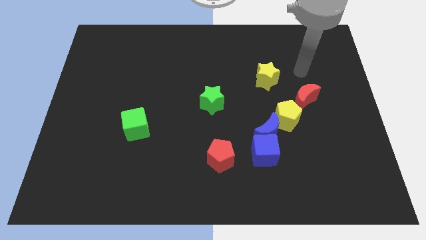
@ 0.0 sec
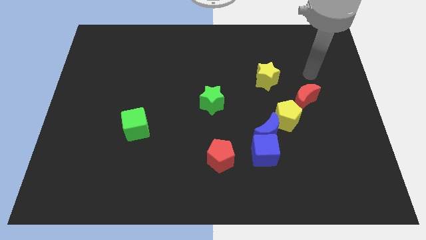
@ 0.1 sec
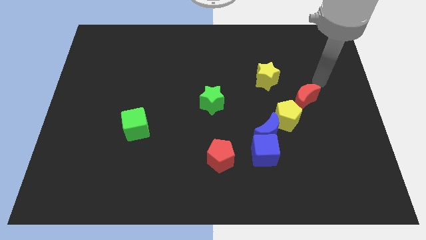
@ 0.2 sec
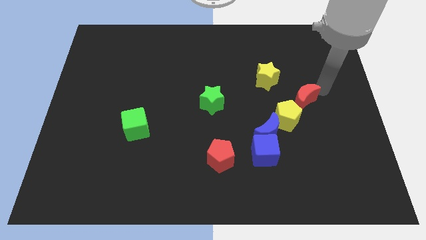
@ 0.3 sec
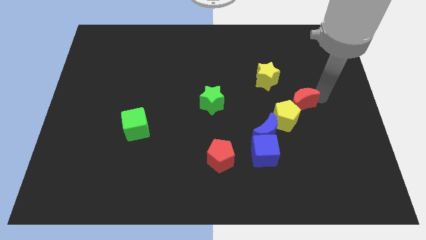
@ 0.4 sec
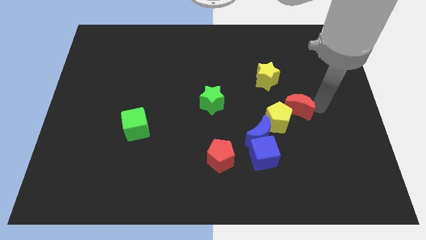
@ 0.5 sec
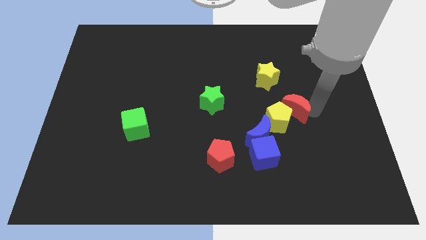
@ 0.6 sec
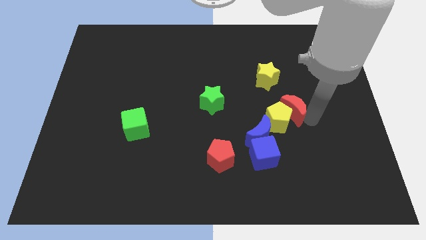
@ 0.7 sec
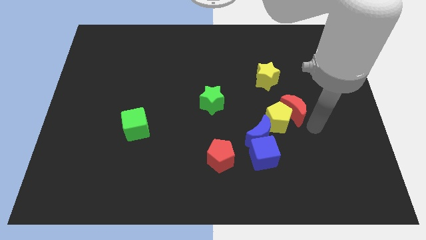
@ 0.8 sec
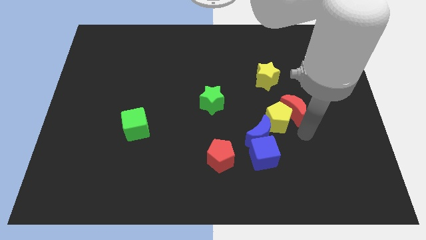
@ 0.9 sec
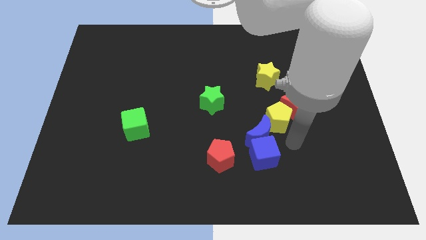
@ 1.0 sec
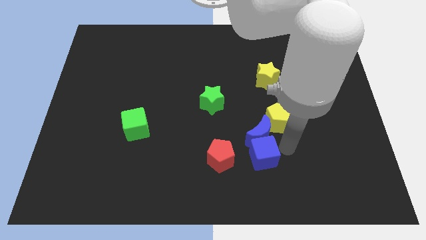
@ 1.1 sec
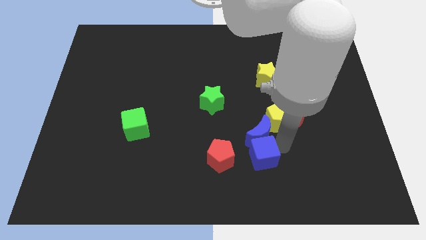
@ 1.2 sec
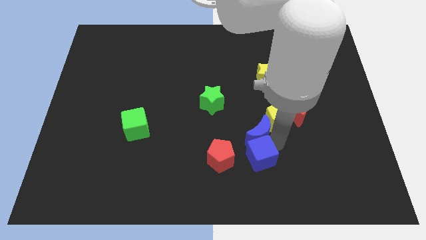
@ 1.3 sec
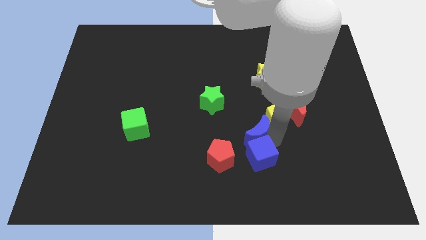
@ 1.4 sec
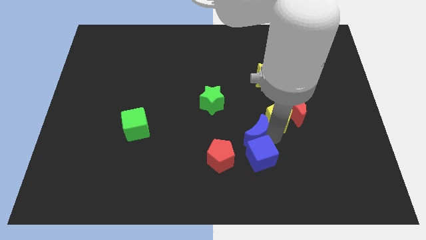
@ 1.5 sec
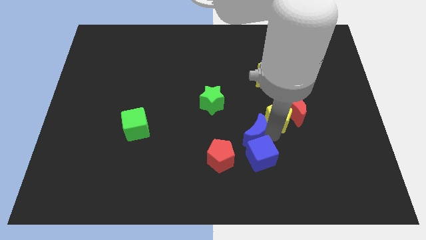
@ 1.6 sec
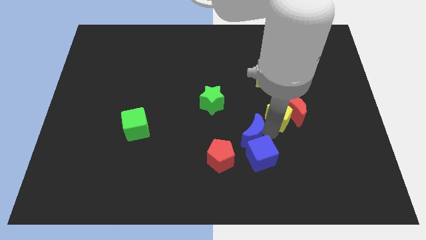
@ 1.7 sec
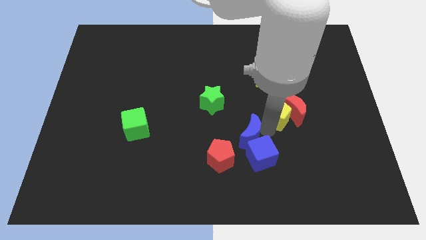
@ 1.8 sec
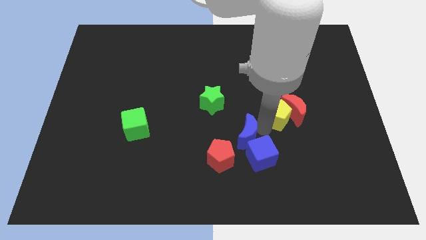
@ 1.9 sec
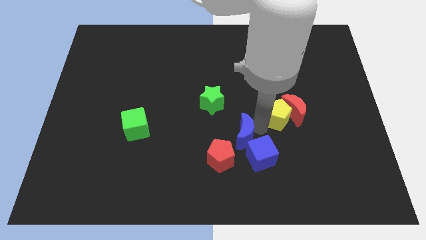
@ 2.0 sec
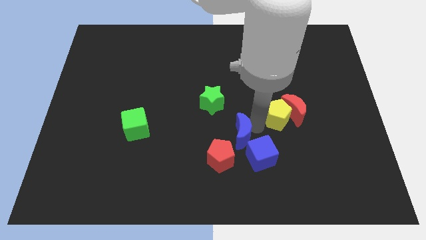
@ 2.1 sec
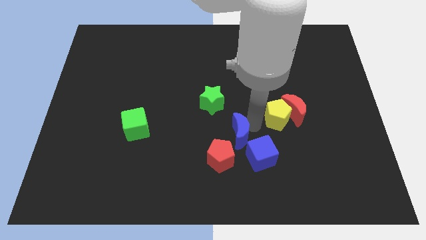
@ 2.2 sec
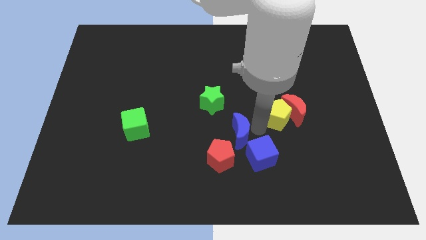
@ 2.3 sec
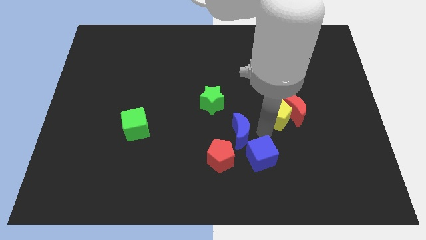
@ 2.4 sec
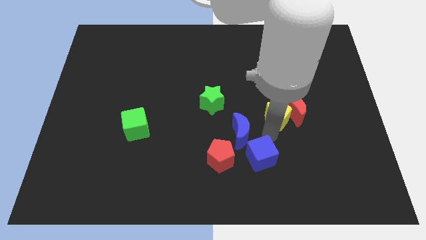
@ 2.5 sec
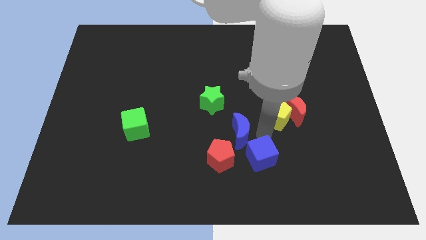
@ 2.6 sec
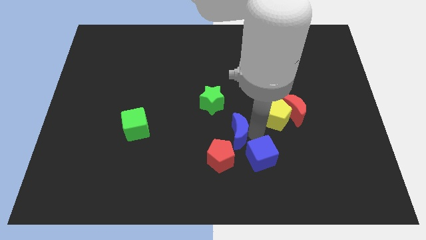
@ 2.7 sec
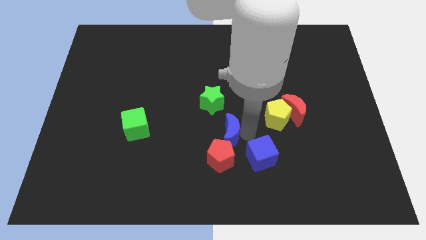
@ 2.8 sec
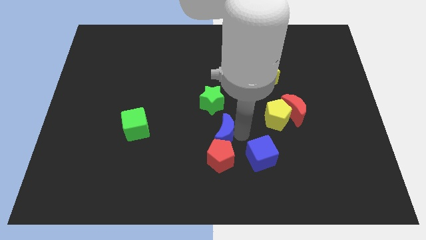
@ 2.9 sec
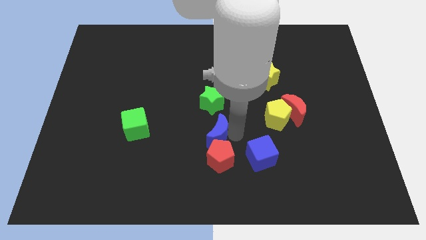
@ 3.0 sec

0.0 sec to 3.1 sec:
separate the blue moon from the blue cube and yellow pentagon

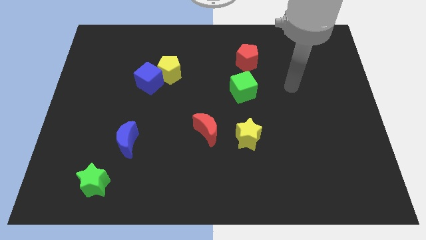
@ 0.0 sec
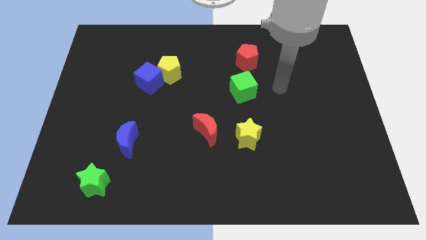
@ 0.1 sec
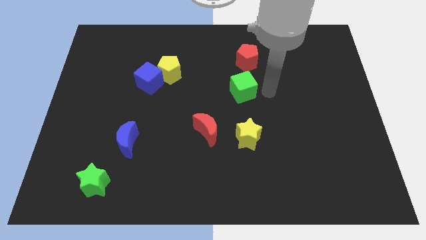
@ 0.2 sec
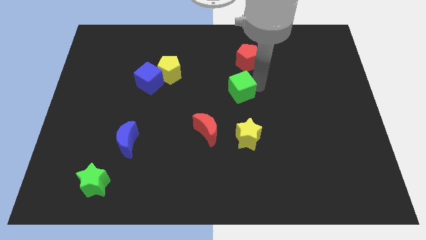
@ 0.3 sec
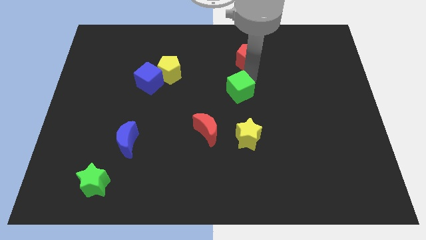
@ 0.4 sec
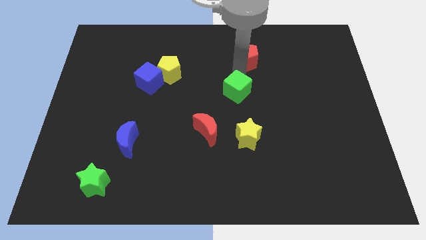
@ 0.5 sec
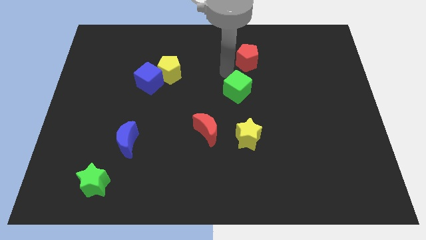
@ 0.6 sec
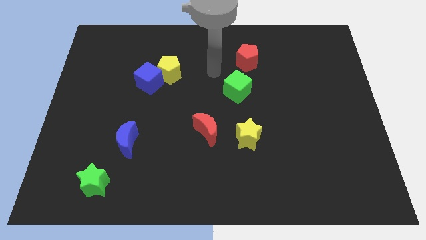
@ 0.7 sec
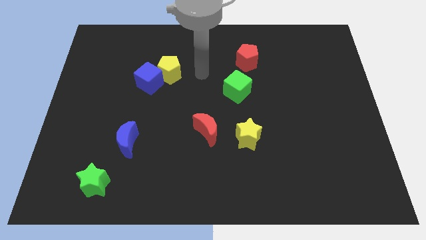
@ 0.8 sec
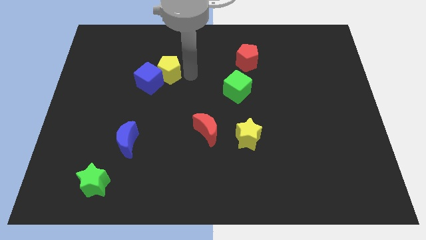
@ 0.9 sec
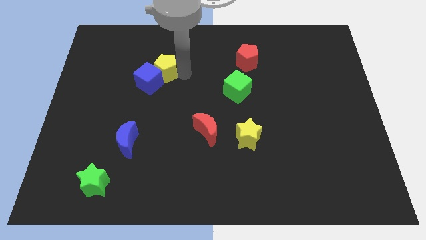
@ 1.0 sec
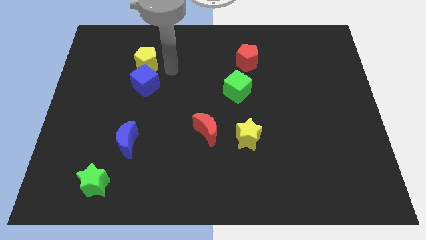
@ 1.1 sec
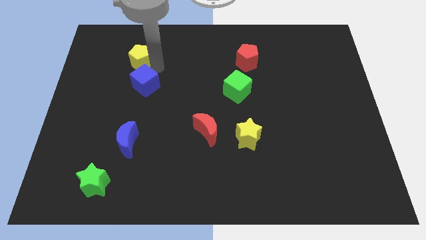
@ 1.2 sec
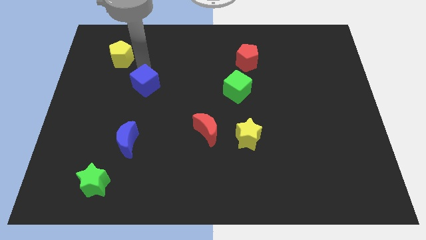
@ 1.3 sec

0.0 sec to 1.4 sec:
move the blue cube away from the yellow pentagon

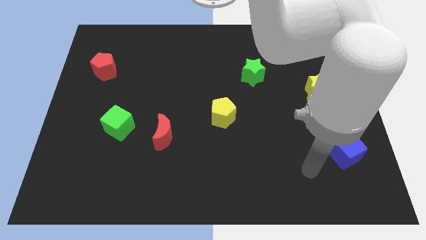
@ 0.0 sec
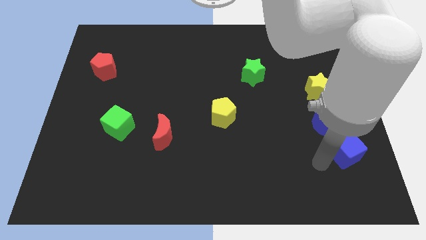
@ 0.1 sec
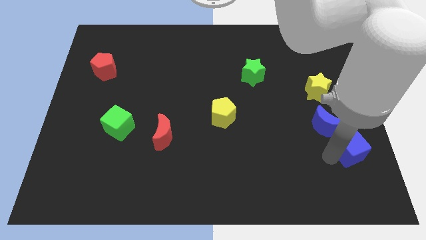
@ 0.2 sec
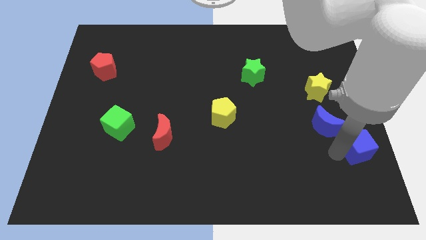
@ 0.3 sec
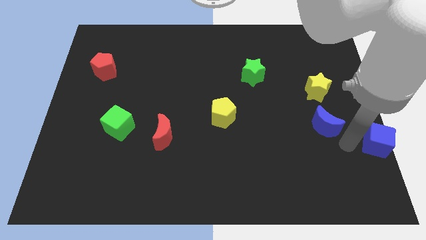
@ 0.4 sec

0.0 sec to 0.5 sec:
move the blue moon away from the blue cube

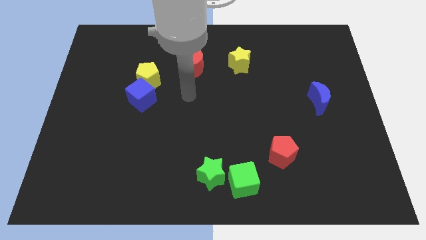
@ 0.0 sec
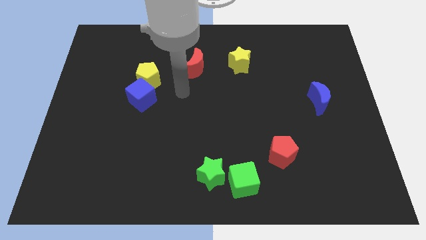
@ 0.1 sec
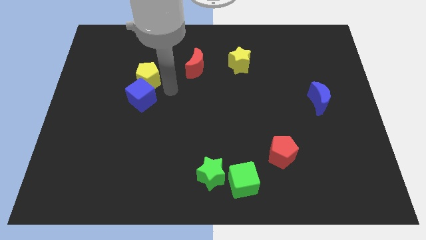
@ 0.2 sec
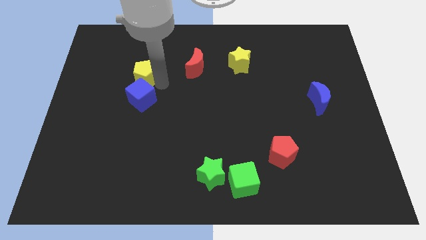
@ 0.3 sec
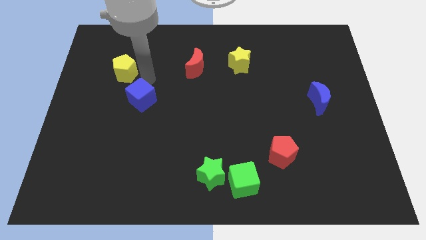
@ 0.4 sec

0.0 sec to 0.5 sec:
separate the blue cube from the yellow pentagon

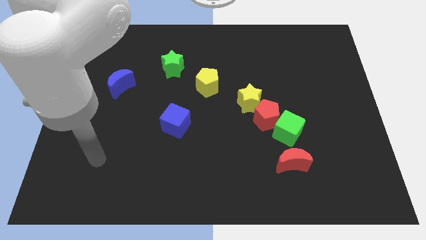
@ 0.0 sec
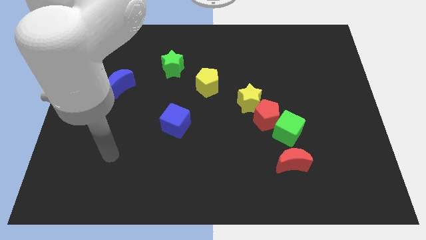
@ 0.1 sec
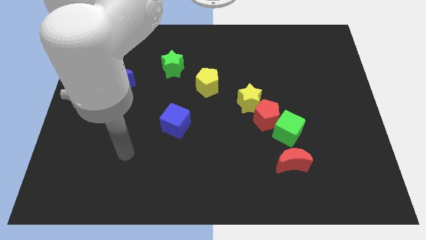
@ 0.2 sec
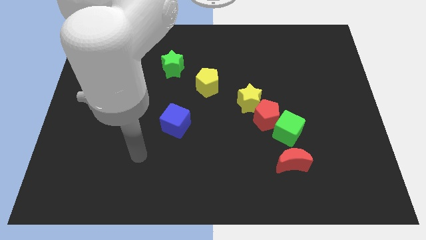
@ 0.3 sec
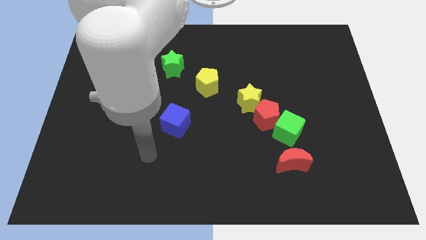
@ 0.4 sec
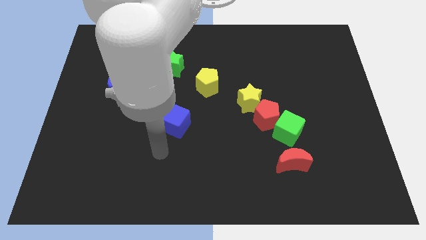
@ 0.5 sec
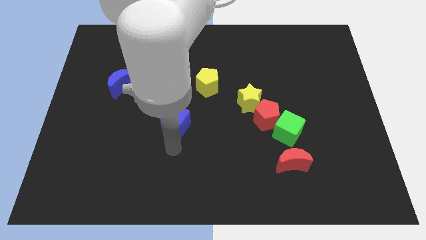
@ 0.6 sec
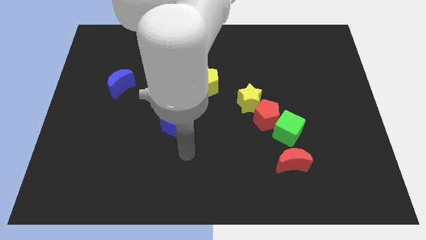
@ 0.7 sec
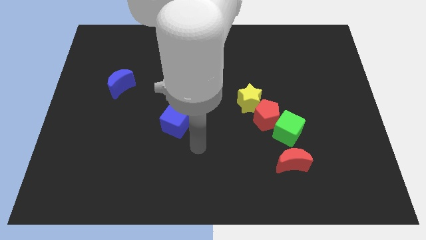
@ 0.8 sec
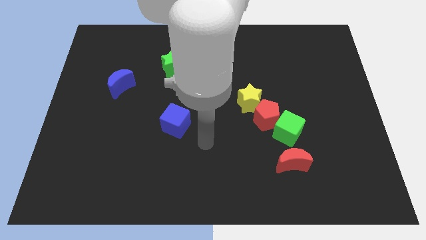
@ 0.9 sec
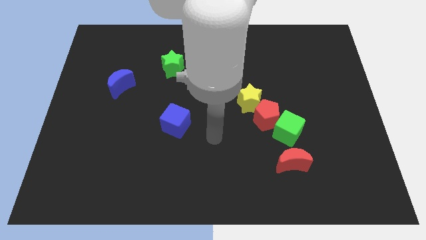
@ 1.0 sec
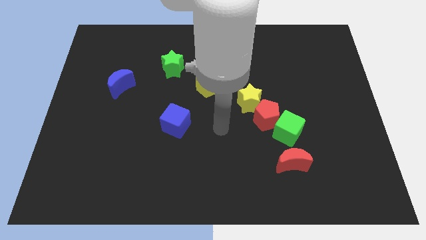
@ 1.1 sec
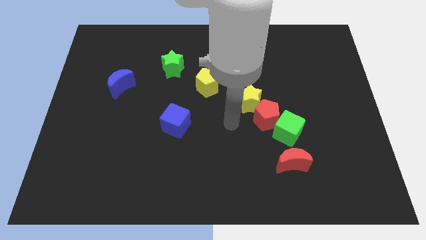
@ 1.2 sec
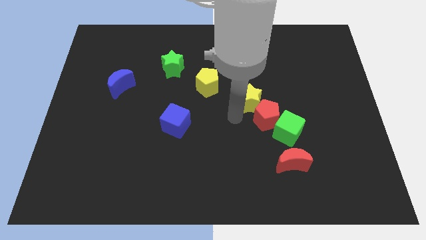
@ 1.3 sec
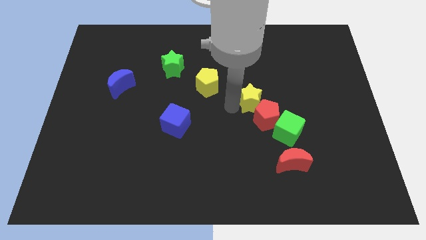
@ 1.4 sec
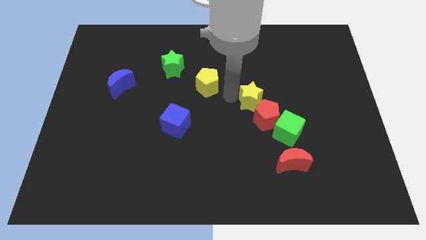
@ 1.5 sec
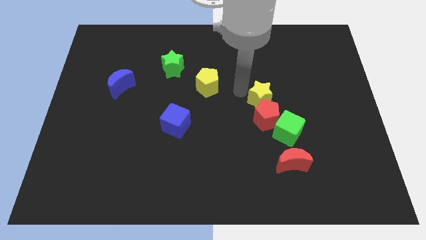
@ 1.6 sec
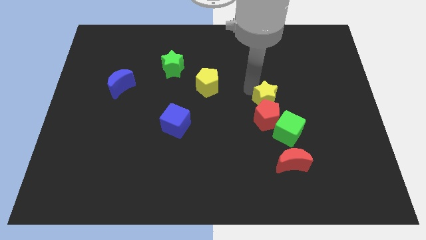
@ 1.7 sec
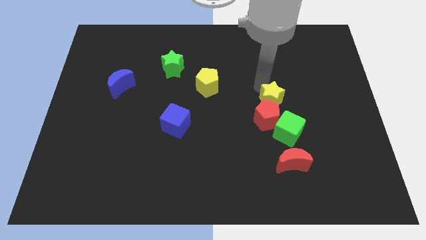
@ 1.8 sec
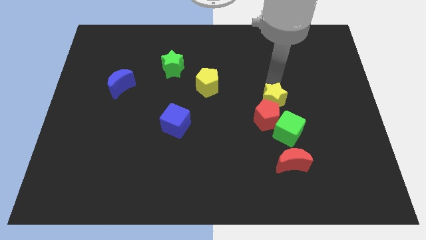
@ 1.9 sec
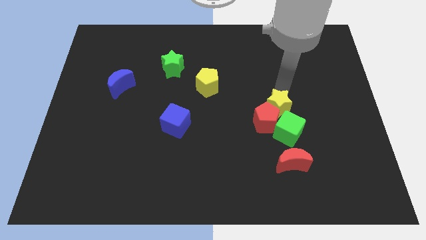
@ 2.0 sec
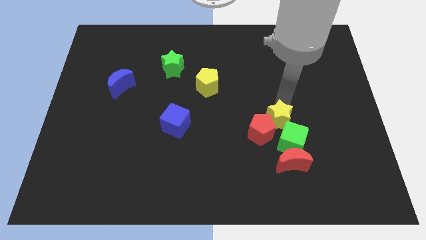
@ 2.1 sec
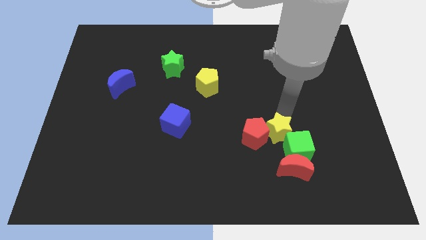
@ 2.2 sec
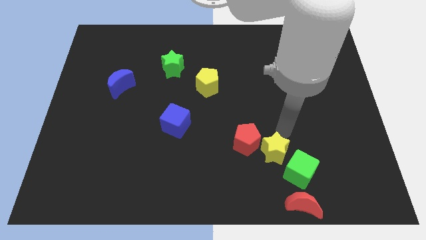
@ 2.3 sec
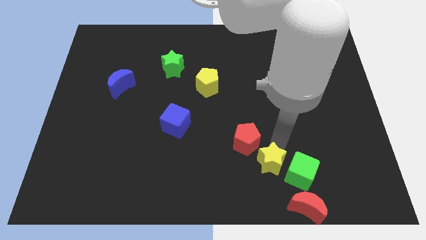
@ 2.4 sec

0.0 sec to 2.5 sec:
move the red pentagon away from the green cube and yellow star

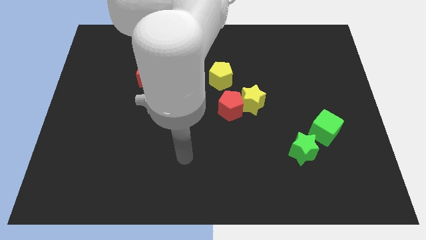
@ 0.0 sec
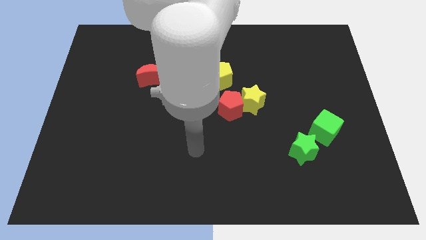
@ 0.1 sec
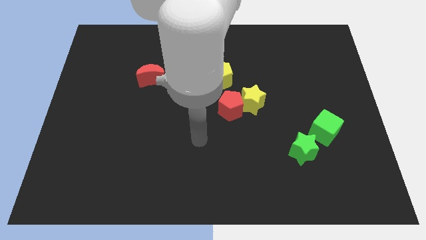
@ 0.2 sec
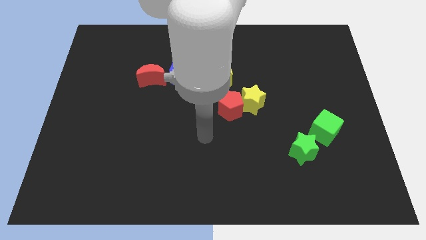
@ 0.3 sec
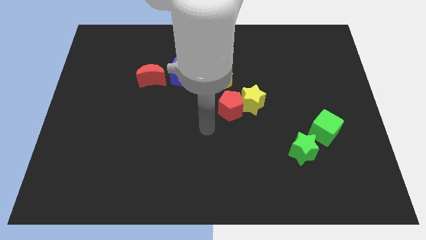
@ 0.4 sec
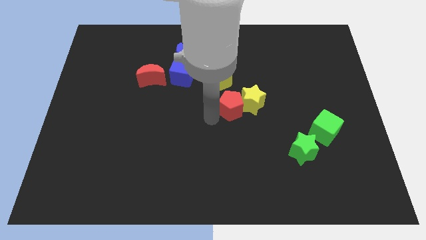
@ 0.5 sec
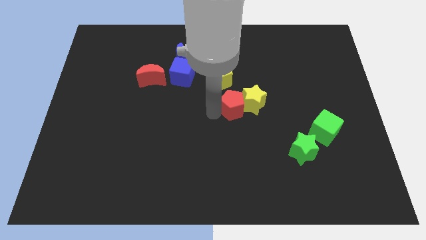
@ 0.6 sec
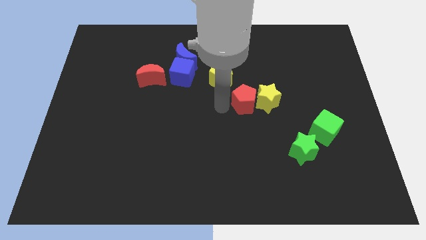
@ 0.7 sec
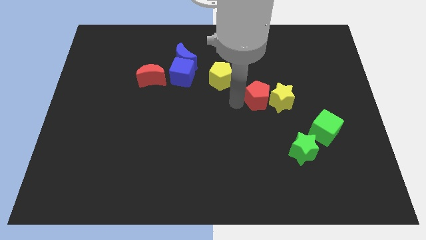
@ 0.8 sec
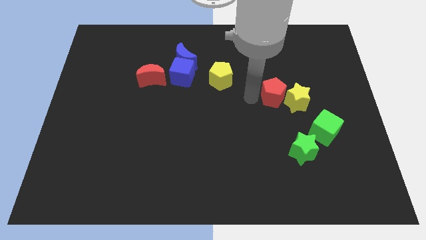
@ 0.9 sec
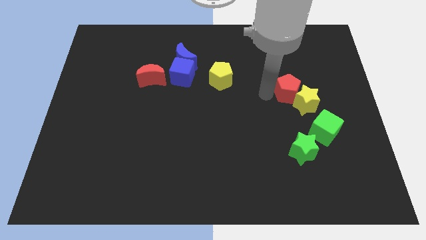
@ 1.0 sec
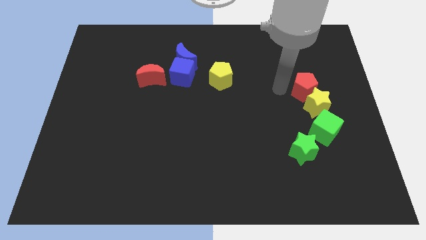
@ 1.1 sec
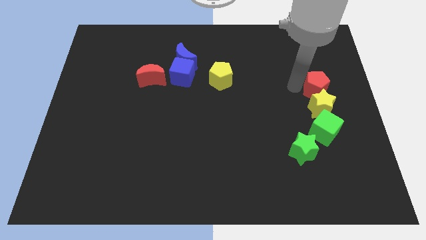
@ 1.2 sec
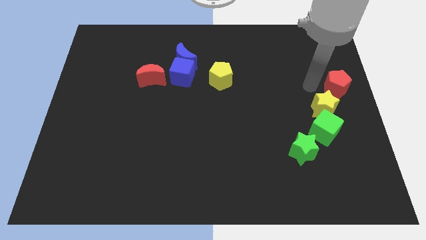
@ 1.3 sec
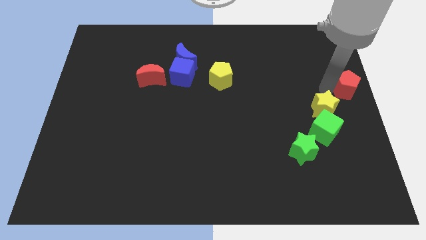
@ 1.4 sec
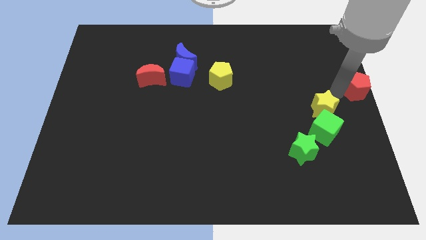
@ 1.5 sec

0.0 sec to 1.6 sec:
pull the yellow star apart from the red pentagon
